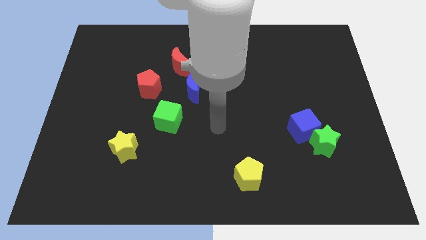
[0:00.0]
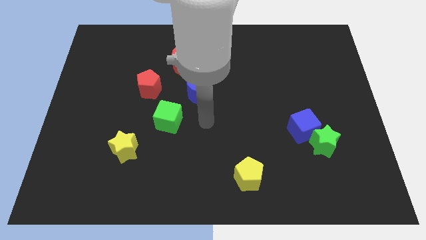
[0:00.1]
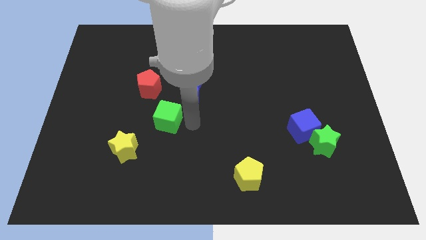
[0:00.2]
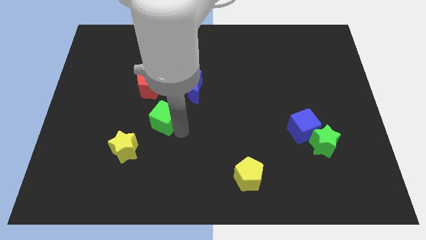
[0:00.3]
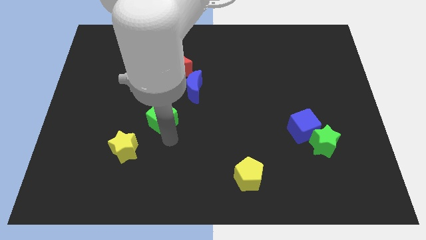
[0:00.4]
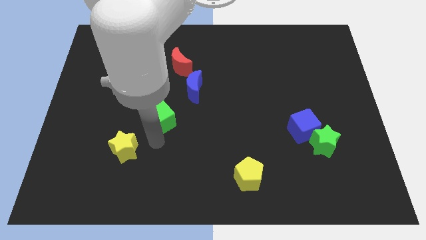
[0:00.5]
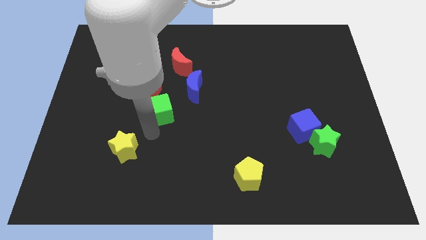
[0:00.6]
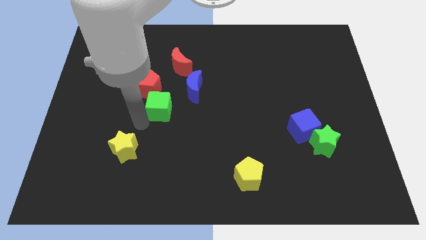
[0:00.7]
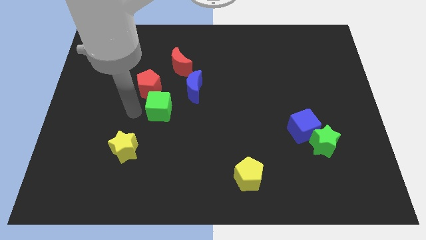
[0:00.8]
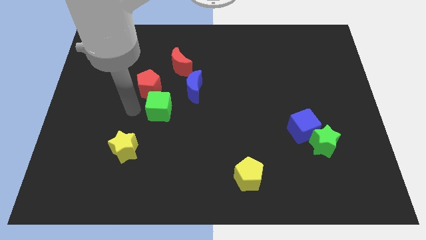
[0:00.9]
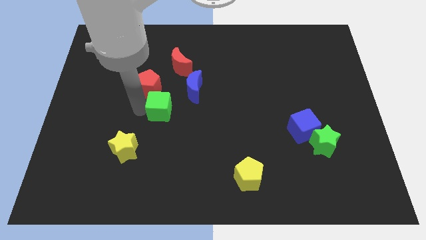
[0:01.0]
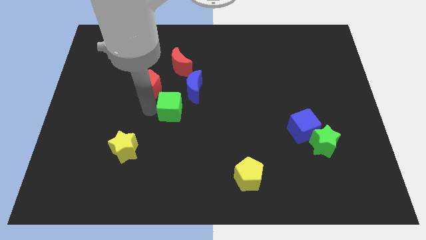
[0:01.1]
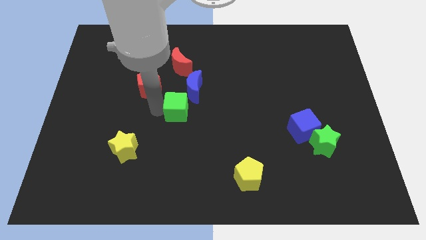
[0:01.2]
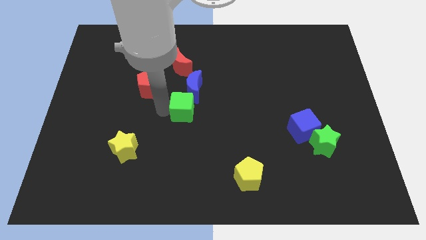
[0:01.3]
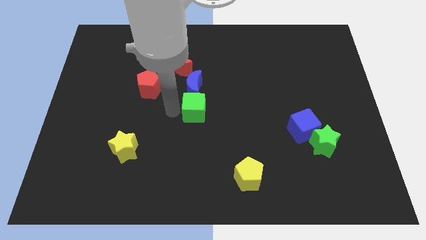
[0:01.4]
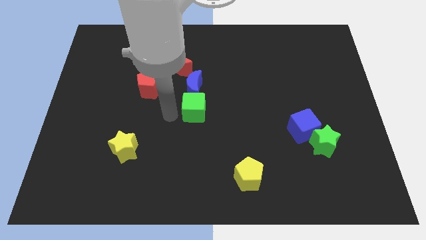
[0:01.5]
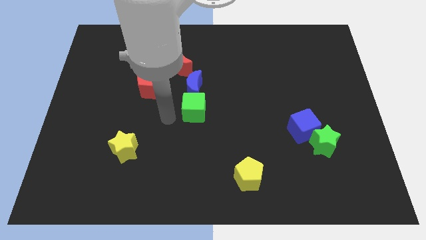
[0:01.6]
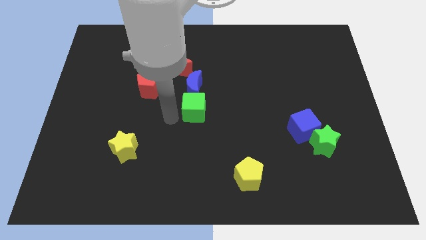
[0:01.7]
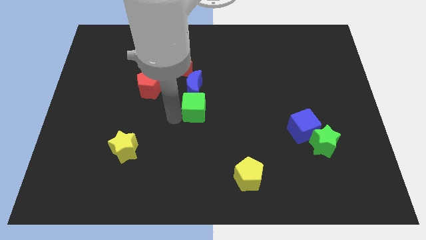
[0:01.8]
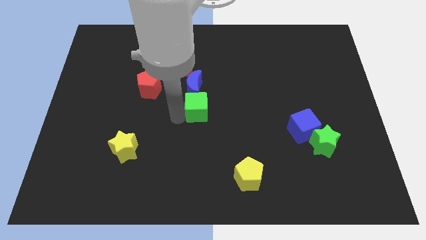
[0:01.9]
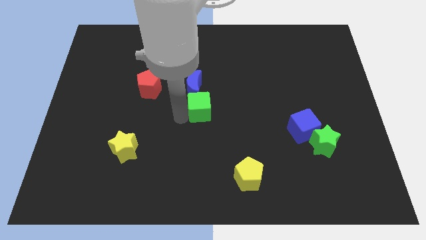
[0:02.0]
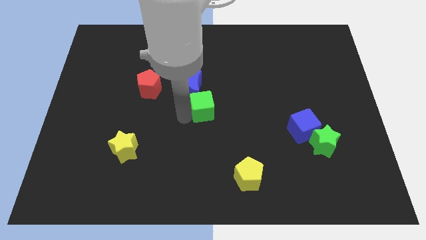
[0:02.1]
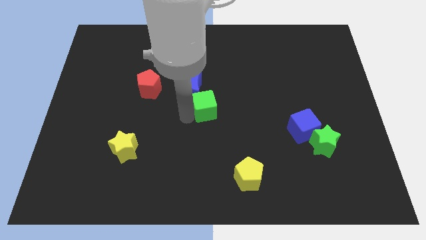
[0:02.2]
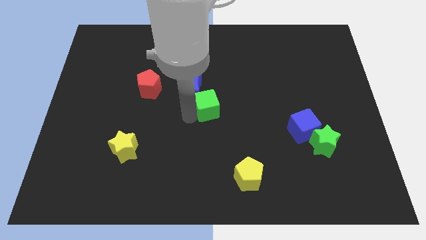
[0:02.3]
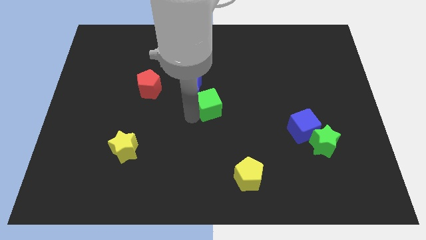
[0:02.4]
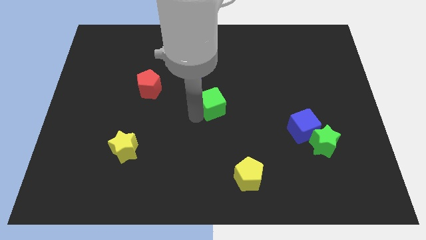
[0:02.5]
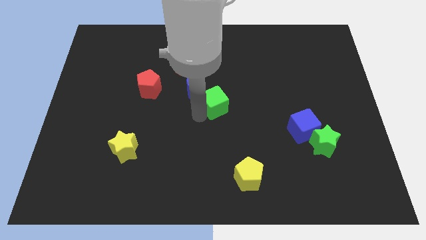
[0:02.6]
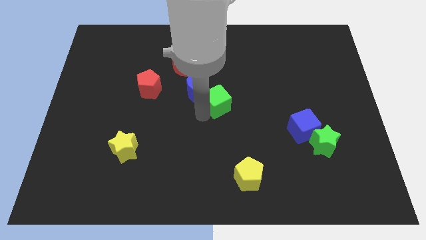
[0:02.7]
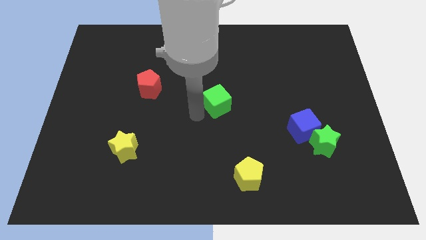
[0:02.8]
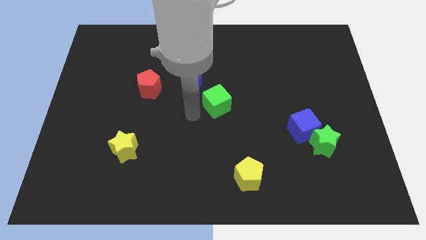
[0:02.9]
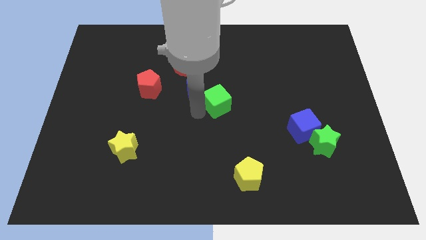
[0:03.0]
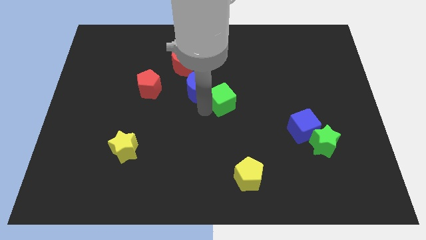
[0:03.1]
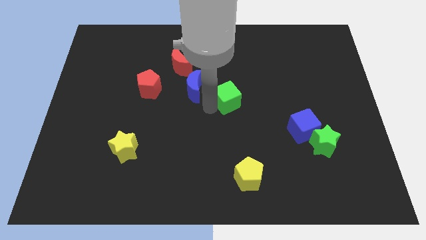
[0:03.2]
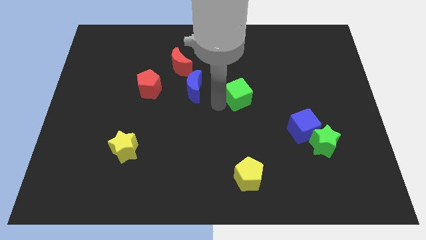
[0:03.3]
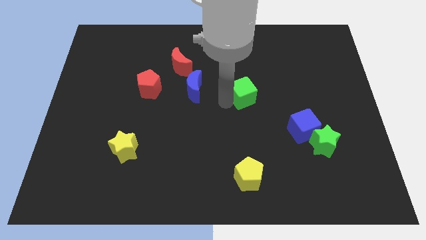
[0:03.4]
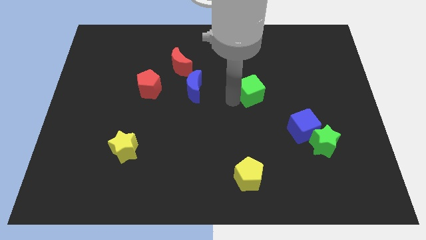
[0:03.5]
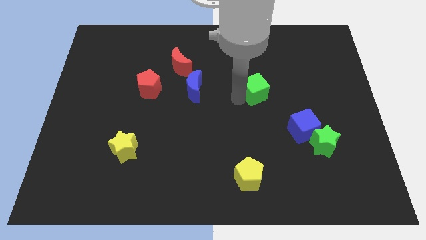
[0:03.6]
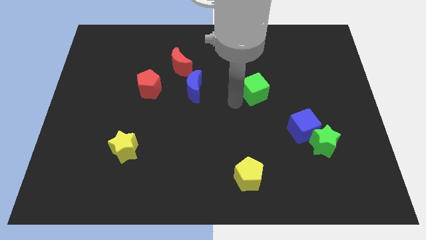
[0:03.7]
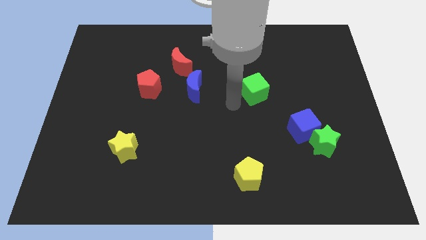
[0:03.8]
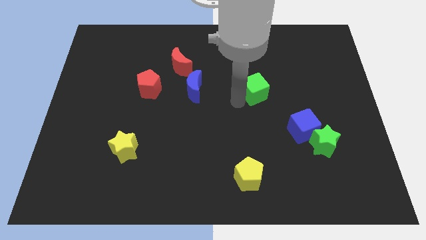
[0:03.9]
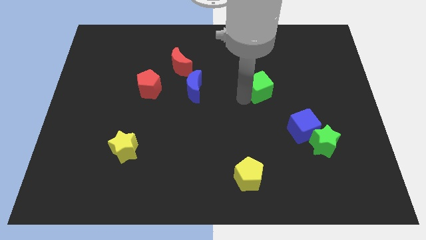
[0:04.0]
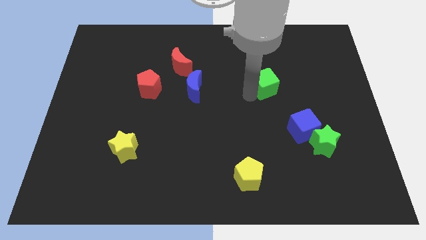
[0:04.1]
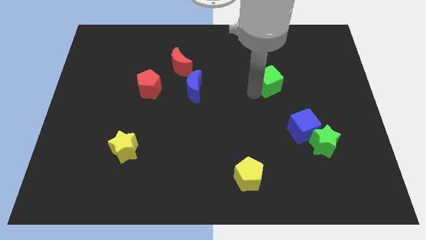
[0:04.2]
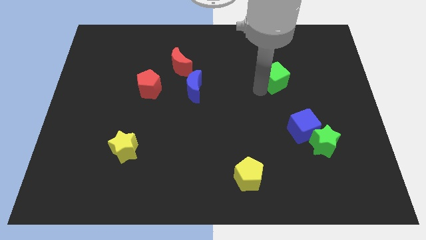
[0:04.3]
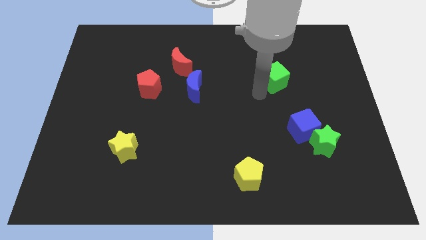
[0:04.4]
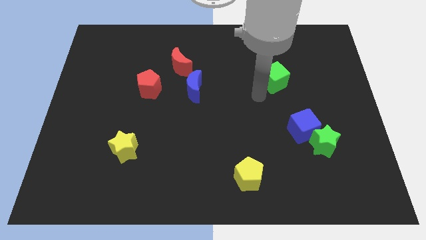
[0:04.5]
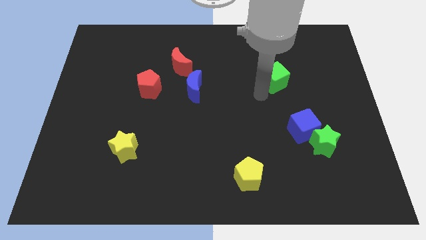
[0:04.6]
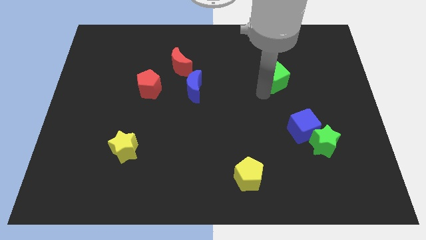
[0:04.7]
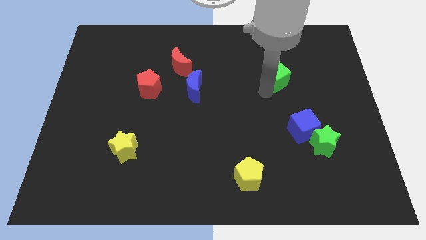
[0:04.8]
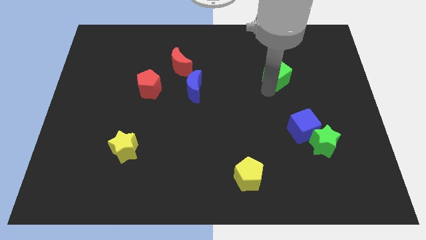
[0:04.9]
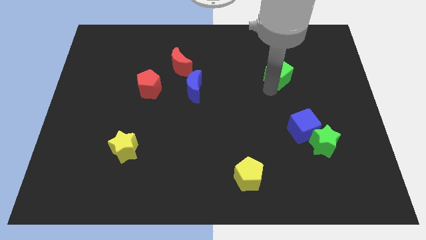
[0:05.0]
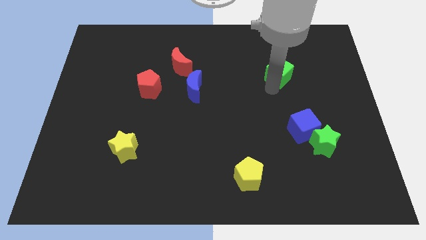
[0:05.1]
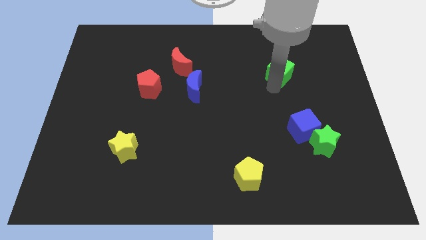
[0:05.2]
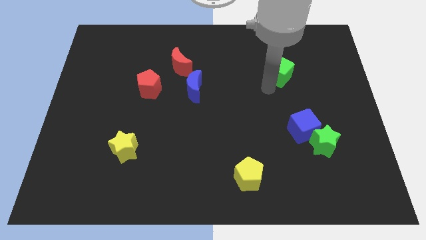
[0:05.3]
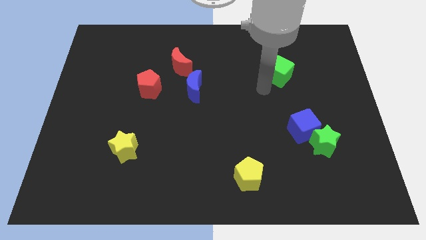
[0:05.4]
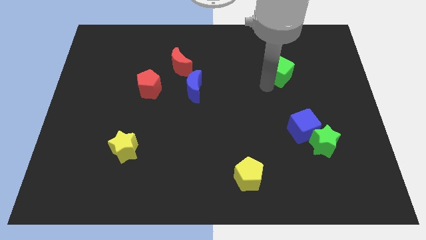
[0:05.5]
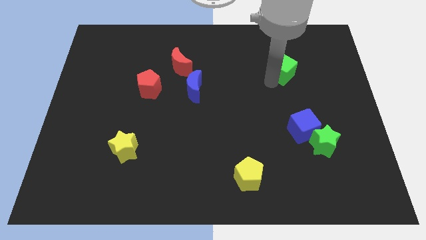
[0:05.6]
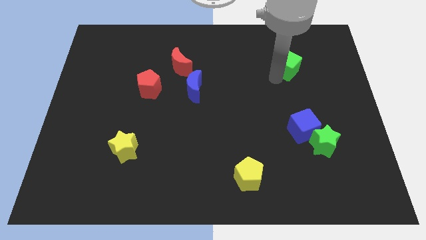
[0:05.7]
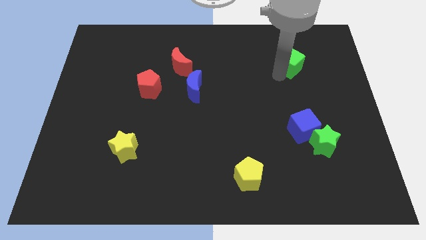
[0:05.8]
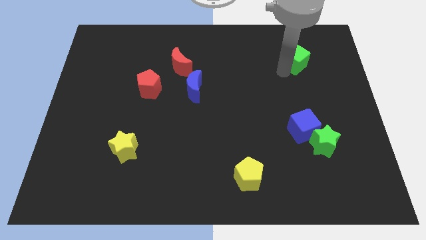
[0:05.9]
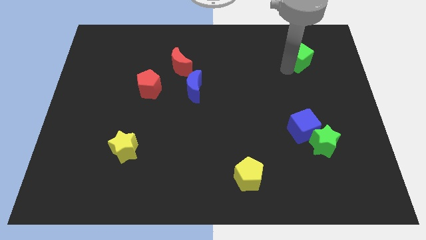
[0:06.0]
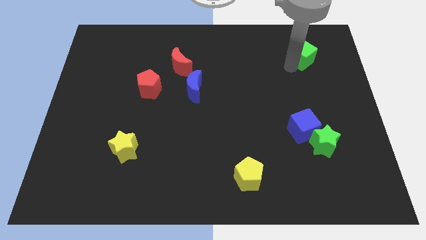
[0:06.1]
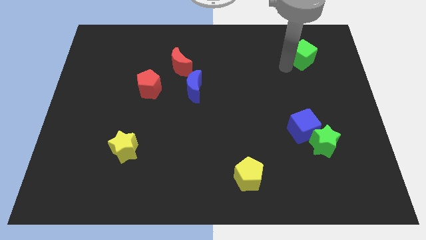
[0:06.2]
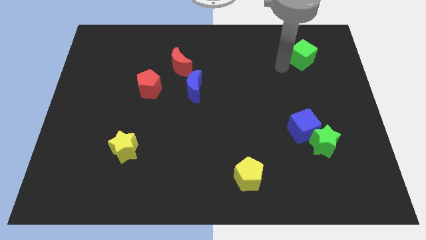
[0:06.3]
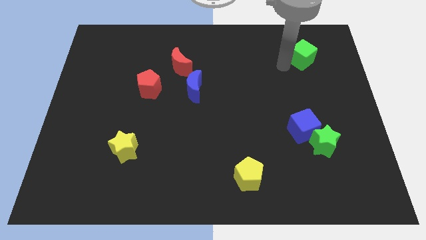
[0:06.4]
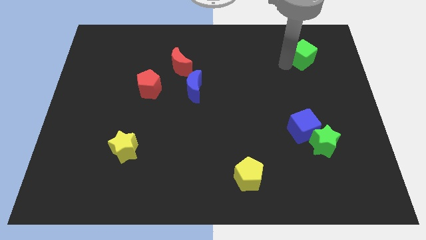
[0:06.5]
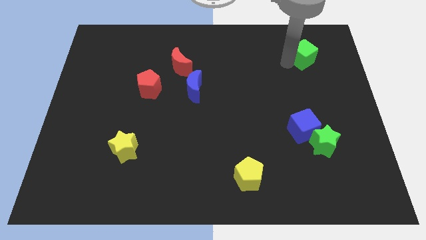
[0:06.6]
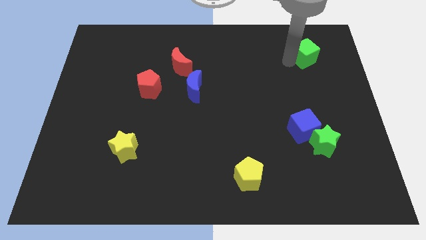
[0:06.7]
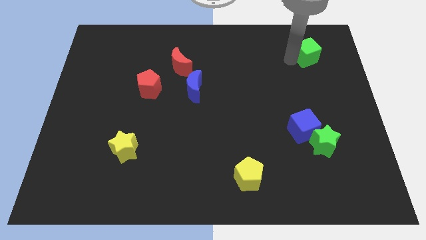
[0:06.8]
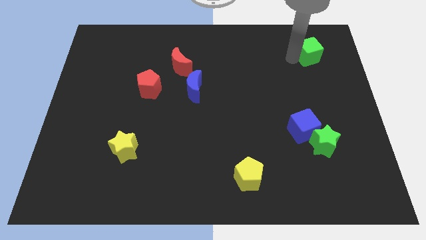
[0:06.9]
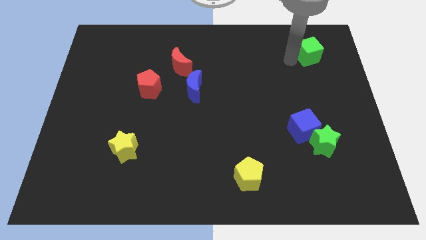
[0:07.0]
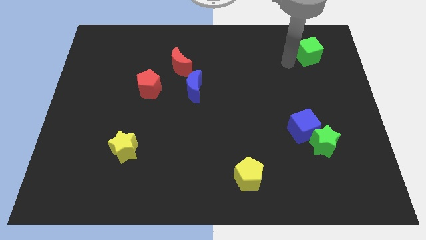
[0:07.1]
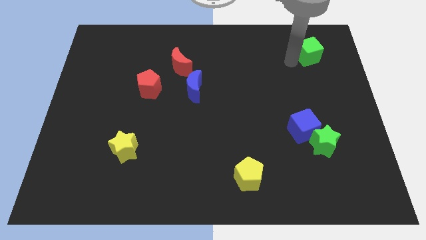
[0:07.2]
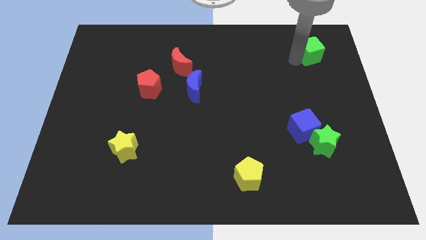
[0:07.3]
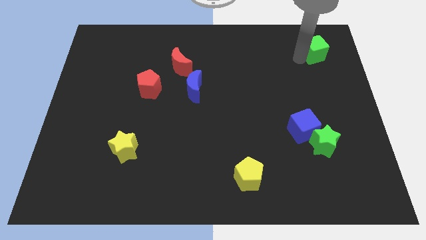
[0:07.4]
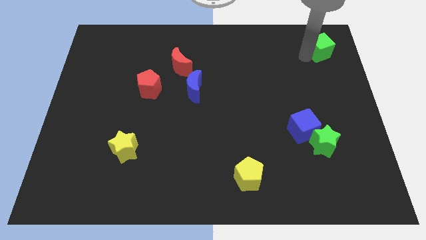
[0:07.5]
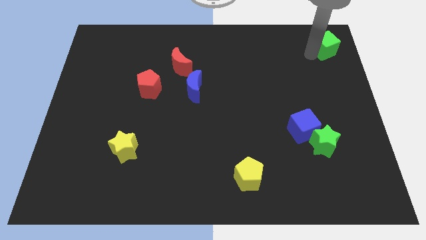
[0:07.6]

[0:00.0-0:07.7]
put the green cube to the top right
